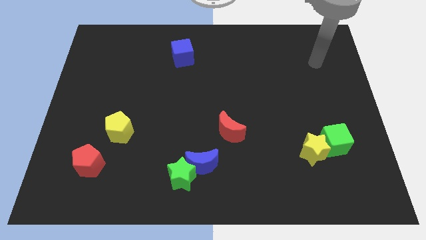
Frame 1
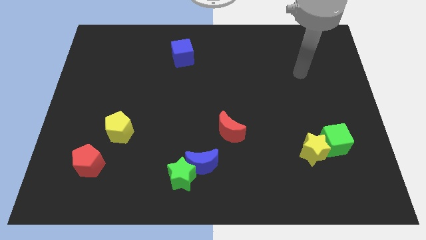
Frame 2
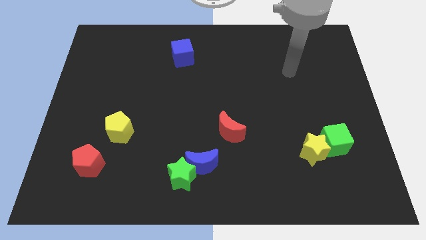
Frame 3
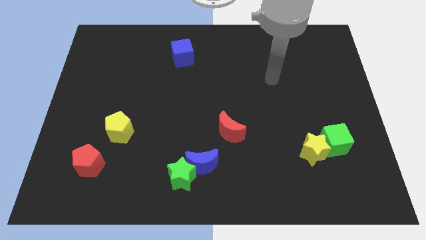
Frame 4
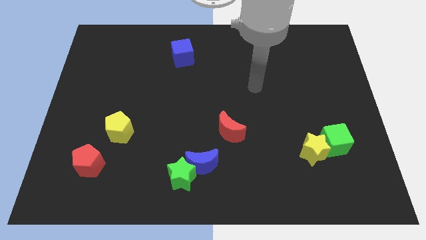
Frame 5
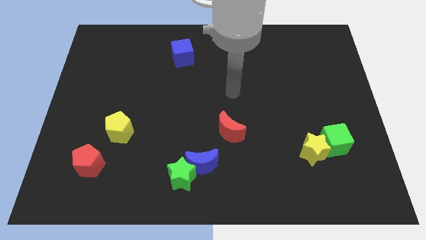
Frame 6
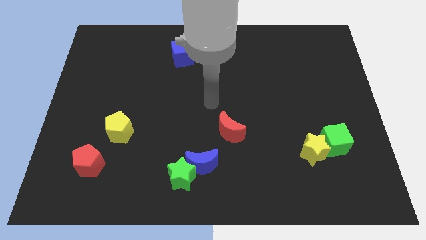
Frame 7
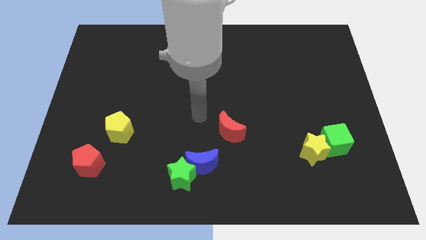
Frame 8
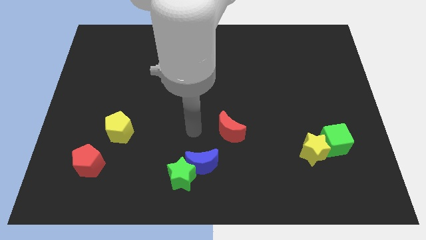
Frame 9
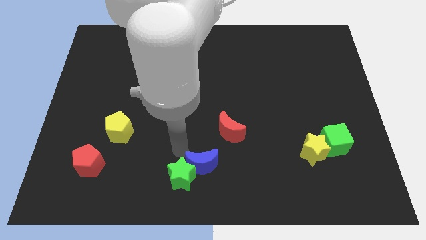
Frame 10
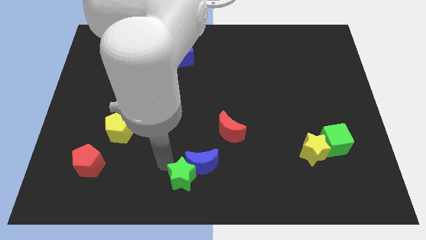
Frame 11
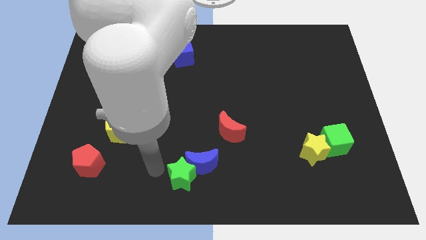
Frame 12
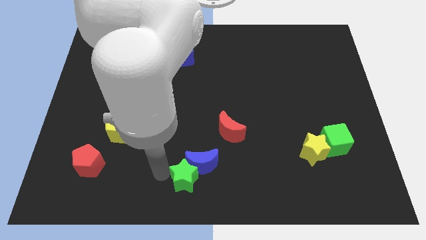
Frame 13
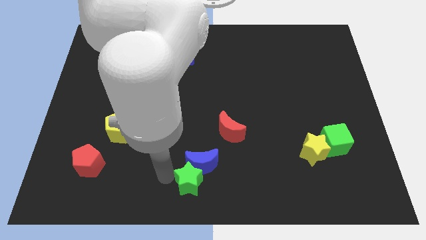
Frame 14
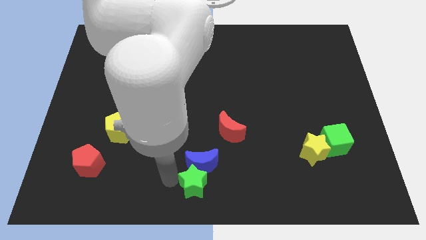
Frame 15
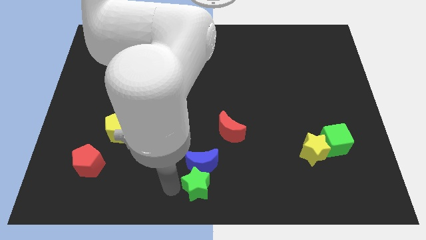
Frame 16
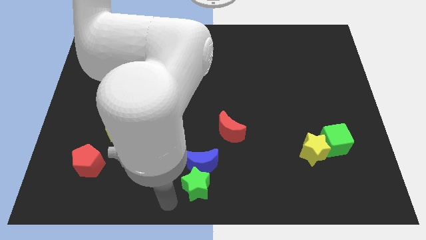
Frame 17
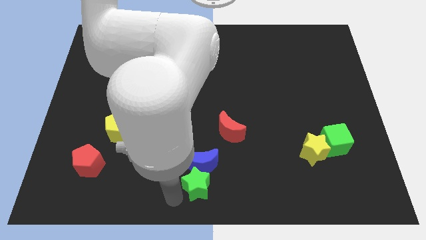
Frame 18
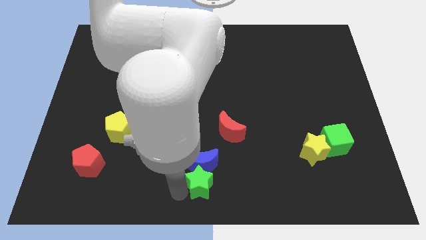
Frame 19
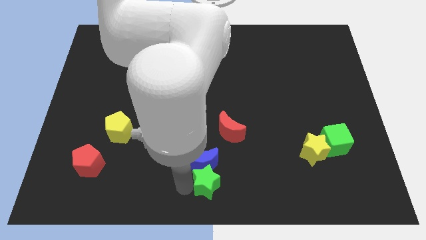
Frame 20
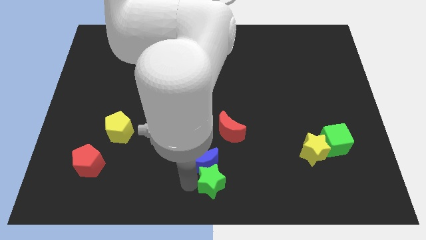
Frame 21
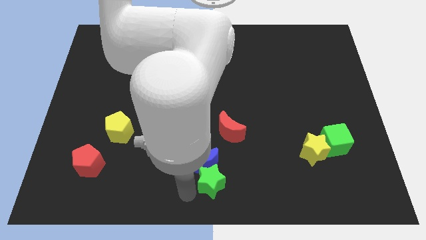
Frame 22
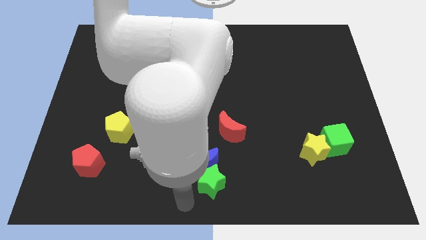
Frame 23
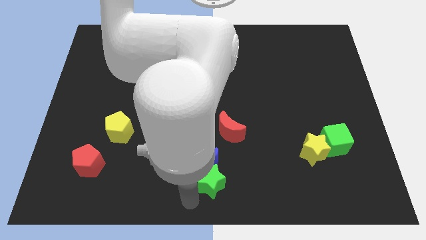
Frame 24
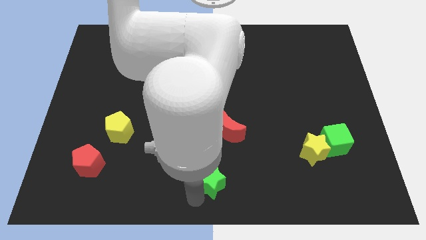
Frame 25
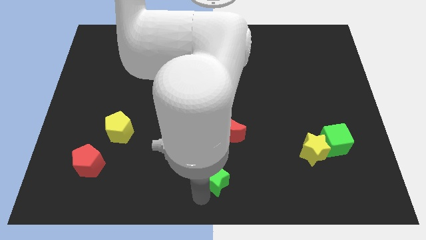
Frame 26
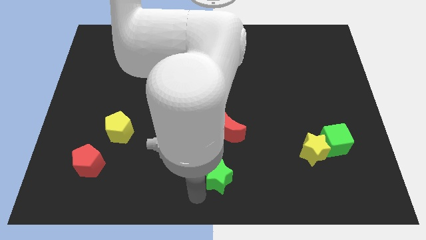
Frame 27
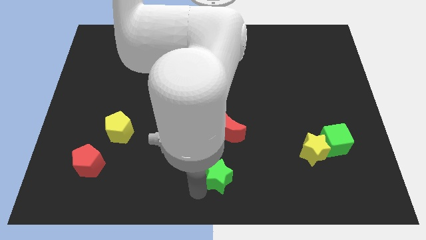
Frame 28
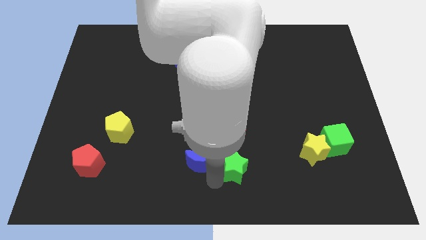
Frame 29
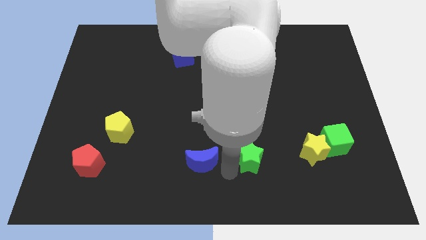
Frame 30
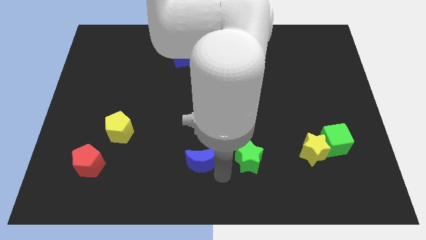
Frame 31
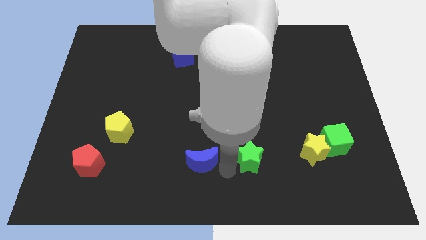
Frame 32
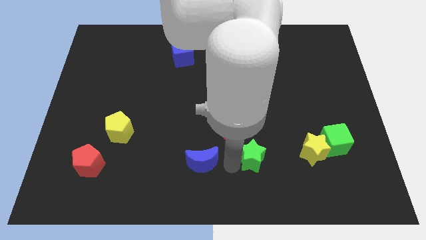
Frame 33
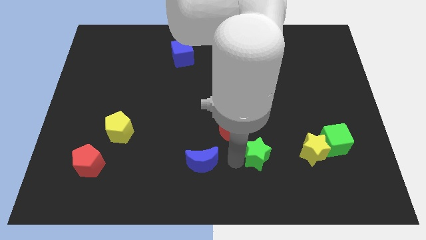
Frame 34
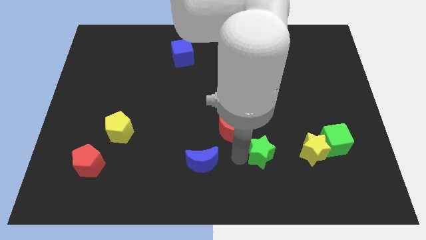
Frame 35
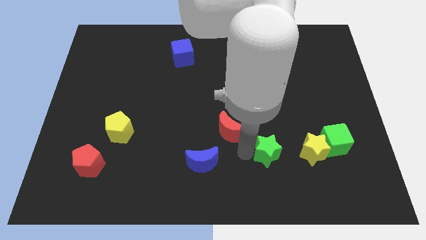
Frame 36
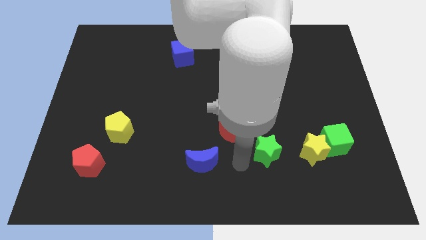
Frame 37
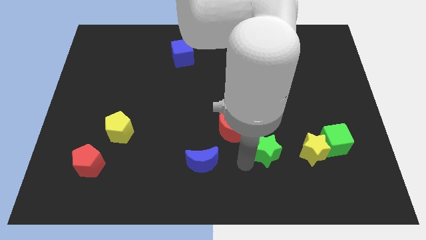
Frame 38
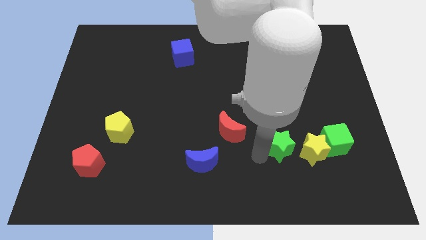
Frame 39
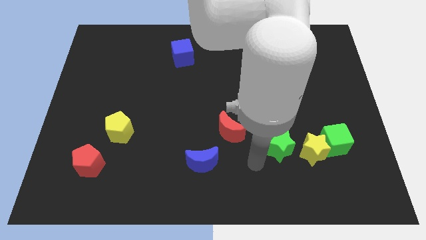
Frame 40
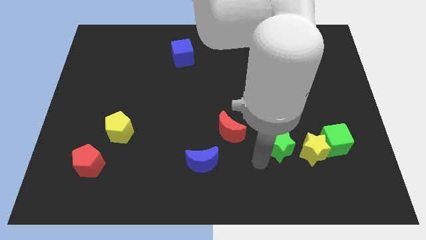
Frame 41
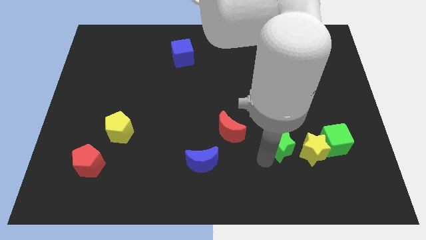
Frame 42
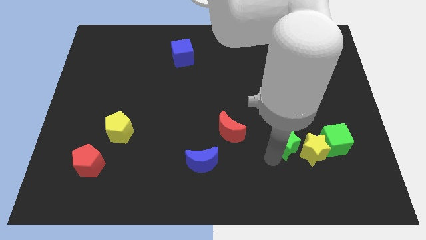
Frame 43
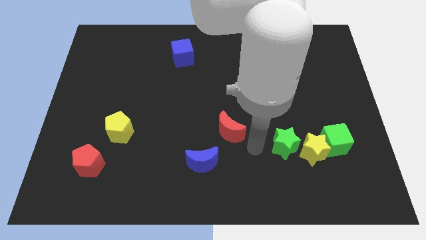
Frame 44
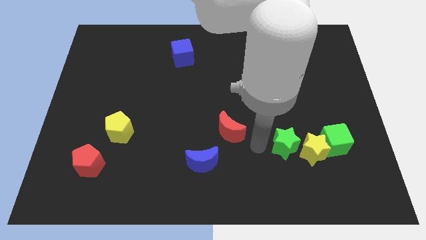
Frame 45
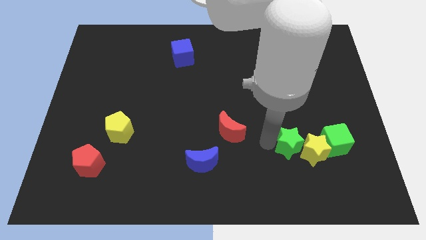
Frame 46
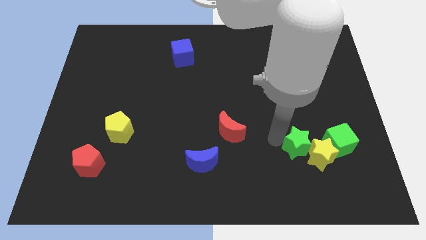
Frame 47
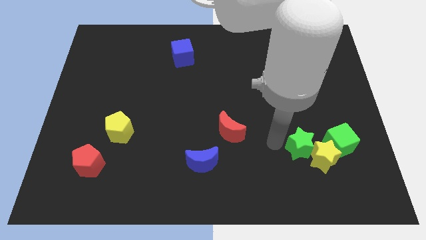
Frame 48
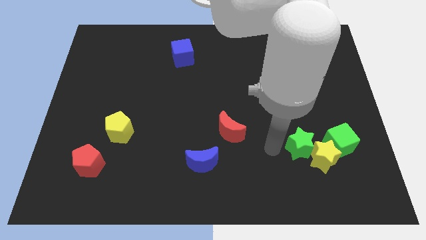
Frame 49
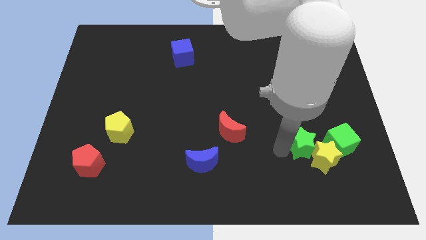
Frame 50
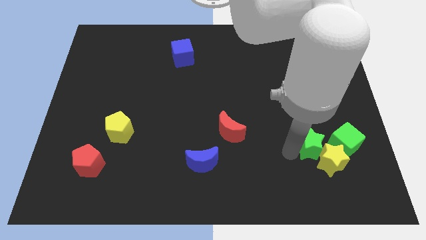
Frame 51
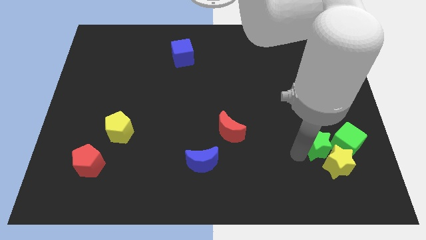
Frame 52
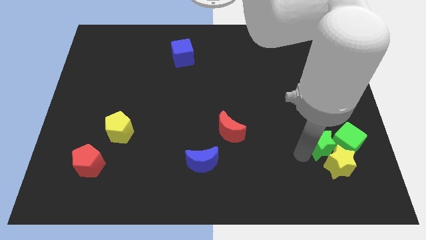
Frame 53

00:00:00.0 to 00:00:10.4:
move the green star towards the green cube

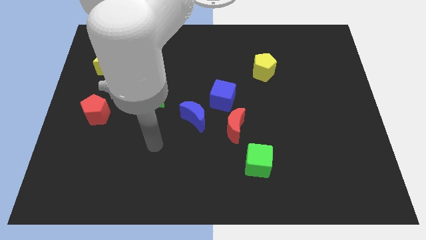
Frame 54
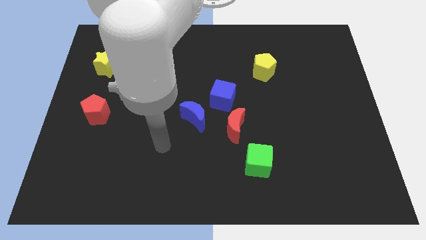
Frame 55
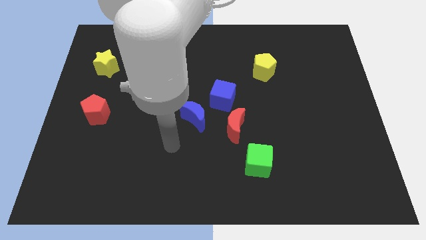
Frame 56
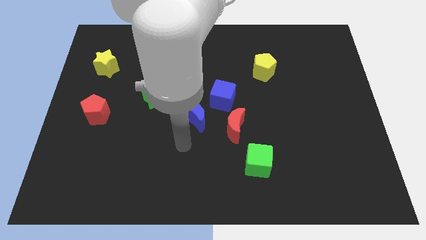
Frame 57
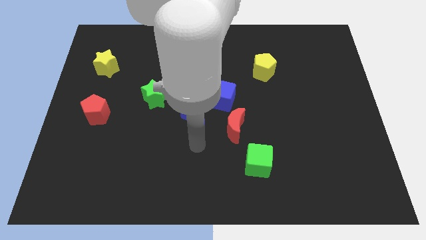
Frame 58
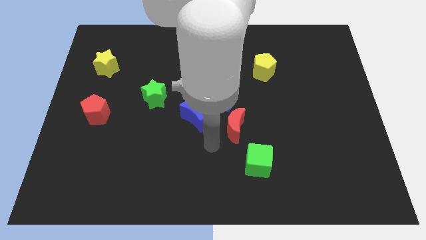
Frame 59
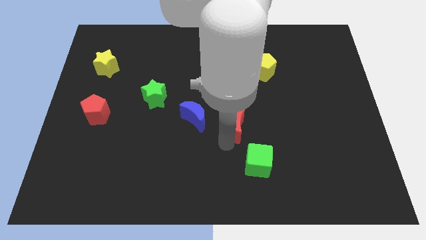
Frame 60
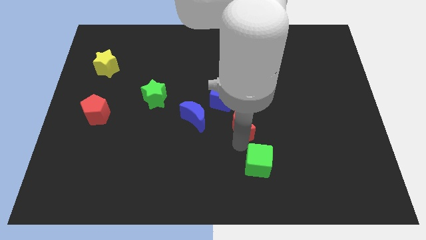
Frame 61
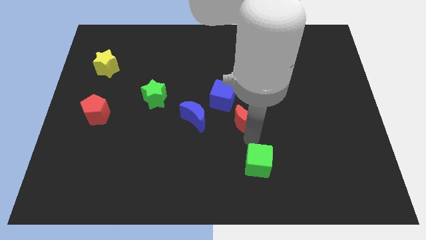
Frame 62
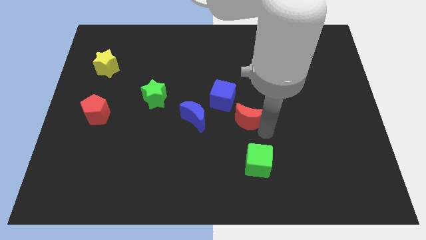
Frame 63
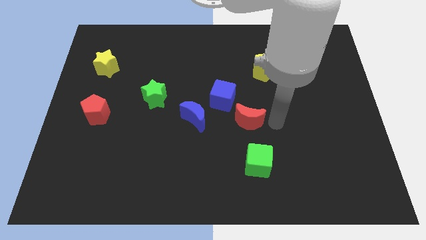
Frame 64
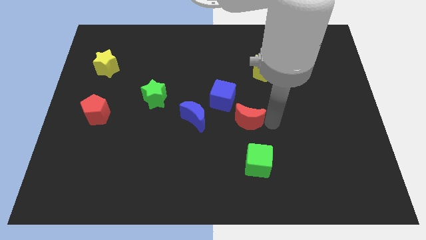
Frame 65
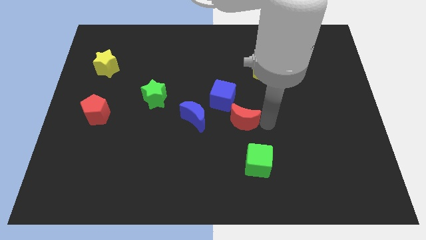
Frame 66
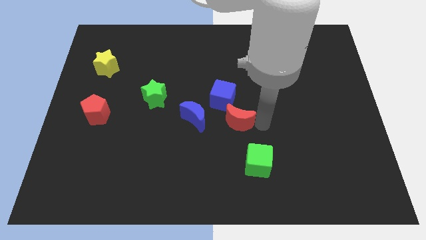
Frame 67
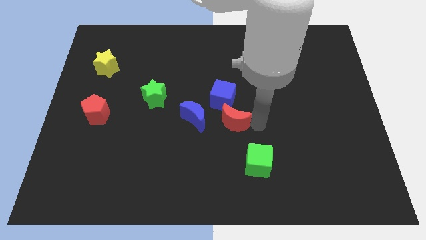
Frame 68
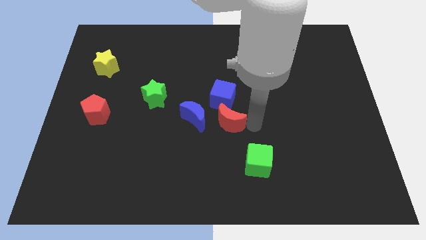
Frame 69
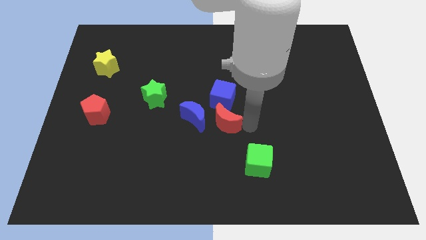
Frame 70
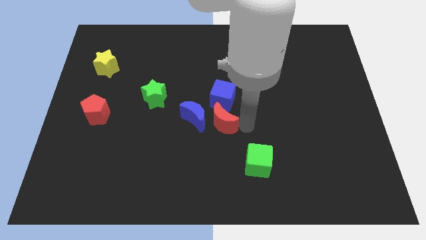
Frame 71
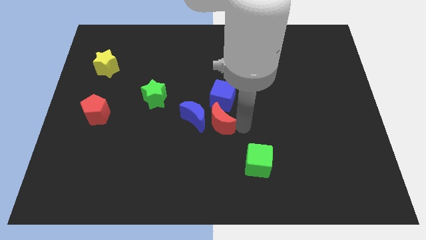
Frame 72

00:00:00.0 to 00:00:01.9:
slide the red moon to the blue moon

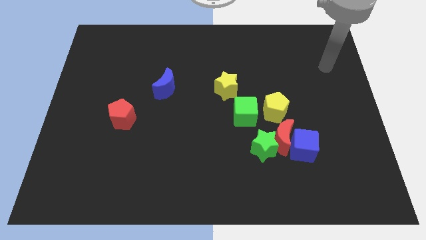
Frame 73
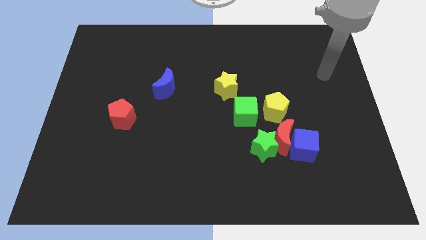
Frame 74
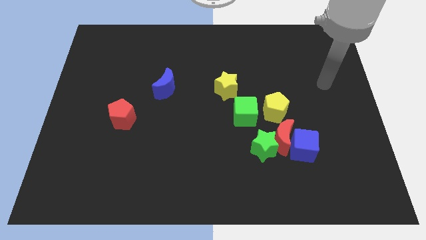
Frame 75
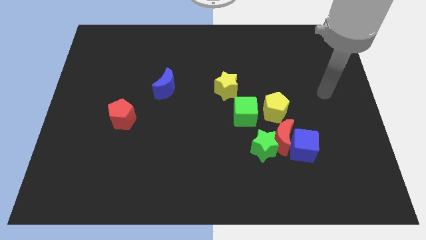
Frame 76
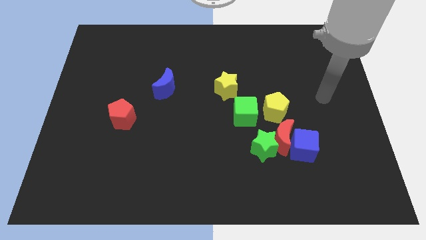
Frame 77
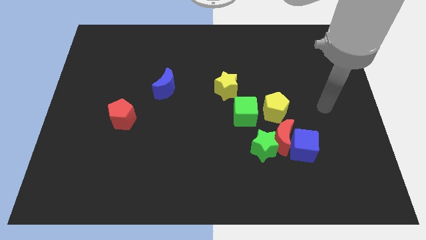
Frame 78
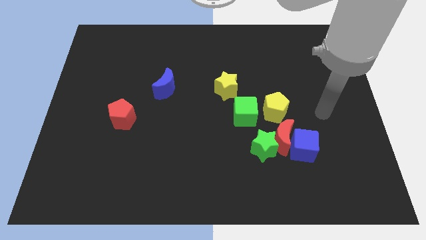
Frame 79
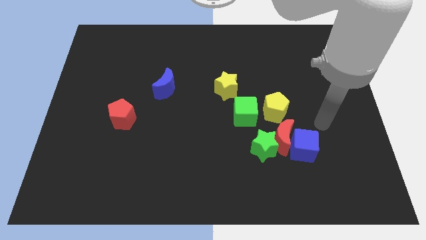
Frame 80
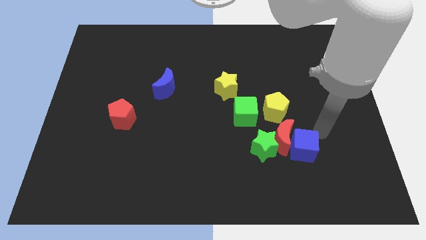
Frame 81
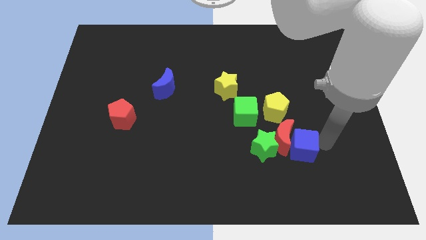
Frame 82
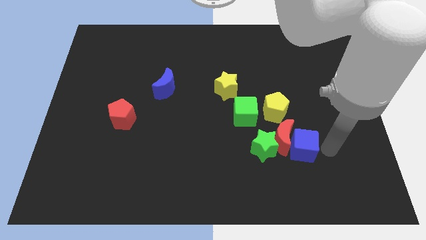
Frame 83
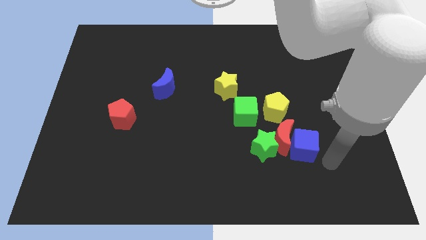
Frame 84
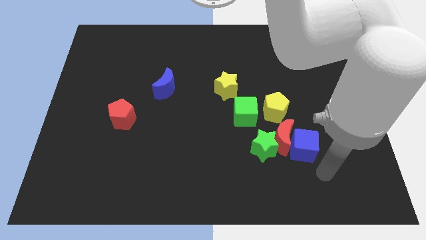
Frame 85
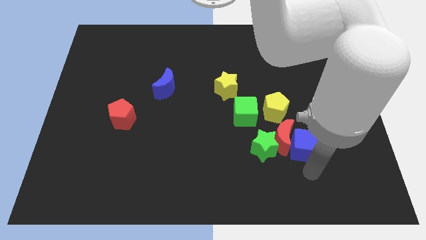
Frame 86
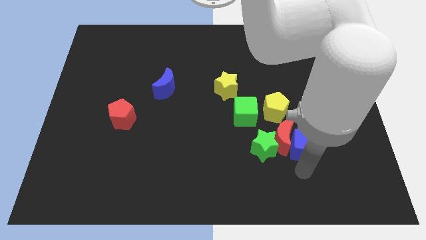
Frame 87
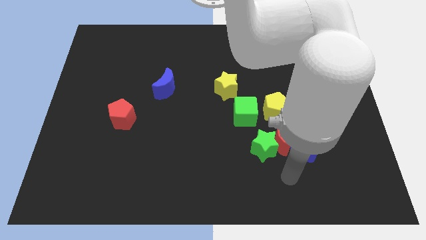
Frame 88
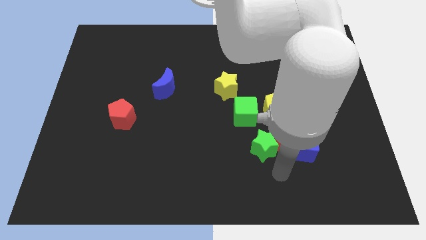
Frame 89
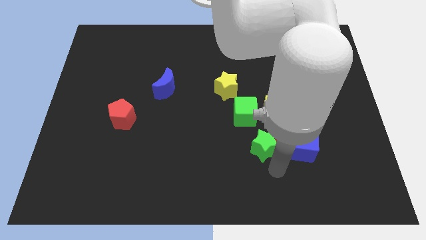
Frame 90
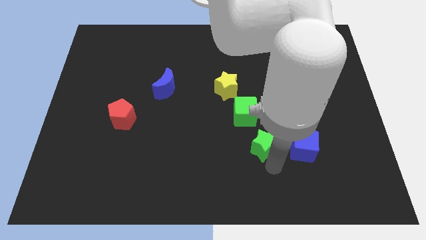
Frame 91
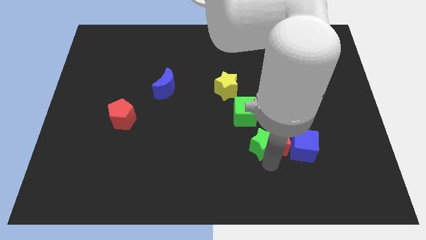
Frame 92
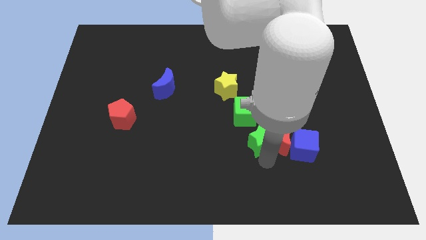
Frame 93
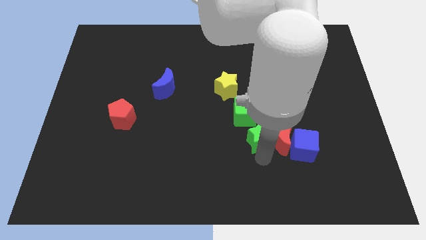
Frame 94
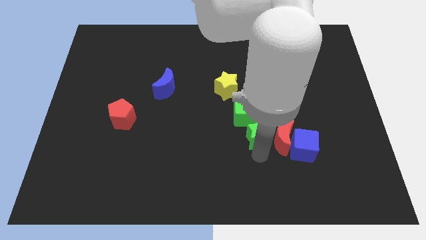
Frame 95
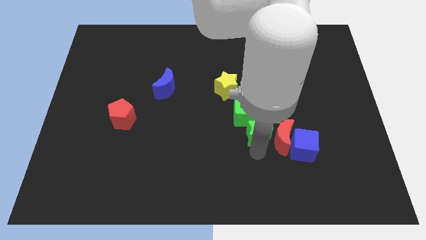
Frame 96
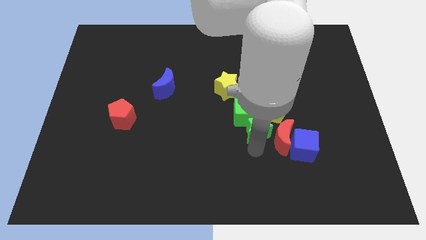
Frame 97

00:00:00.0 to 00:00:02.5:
push the green star towards the green cube
